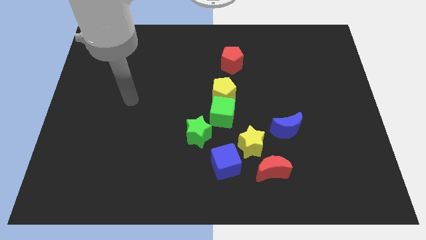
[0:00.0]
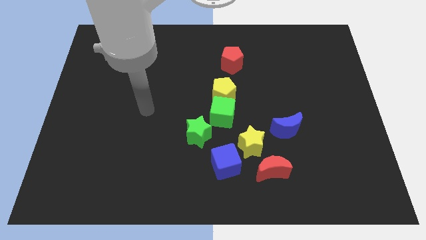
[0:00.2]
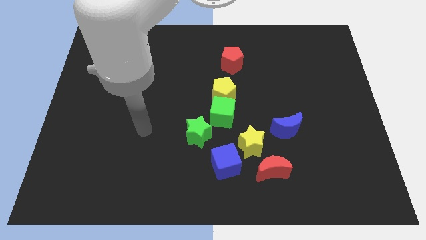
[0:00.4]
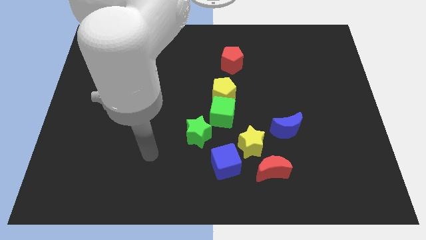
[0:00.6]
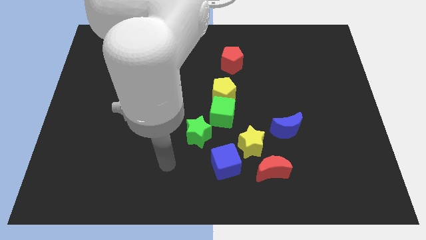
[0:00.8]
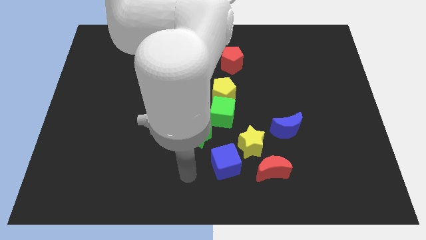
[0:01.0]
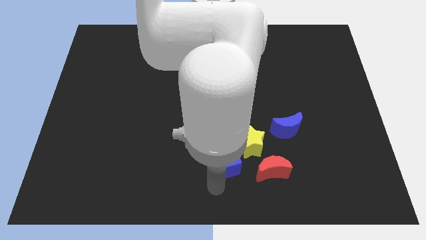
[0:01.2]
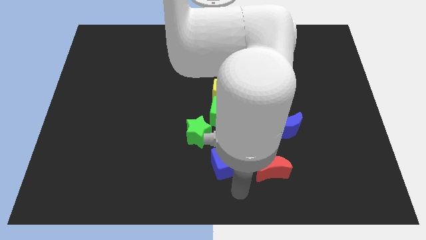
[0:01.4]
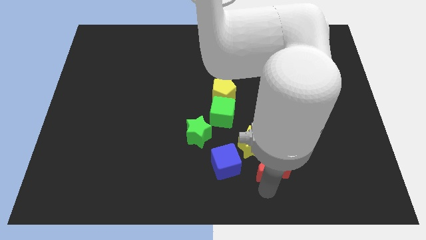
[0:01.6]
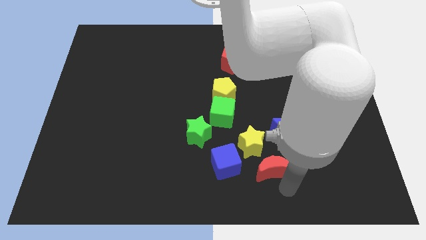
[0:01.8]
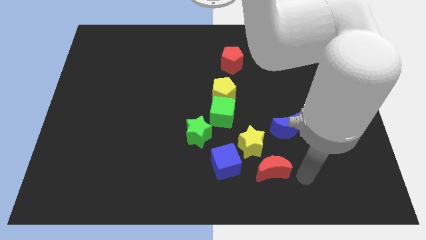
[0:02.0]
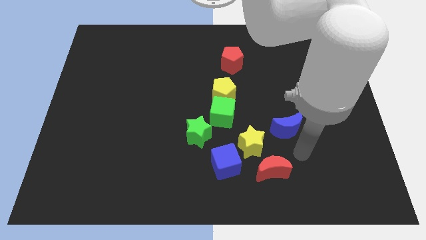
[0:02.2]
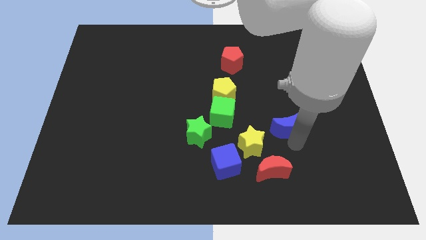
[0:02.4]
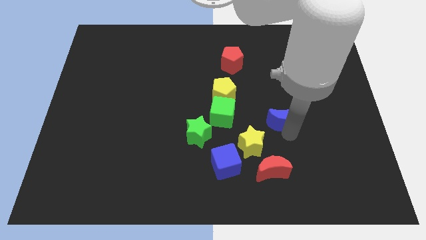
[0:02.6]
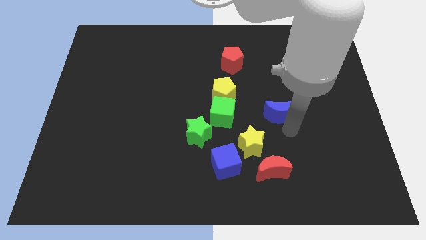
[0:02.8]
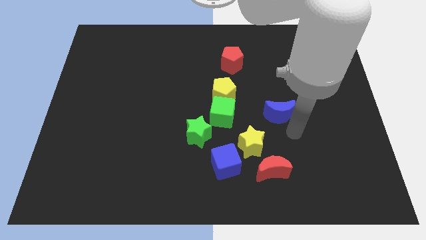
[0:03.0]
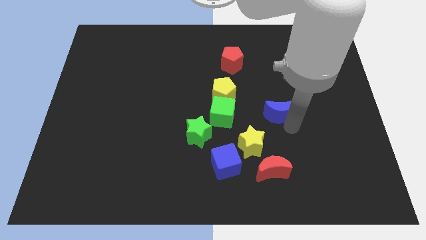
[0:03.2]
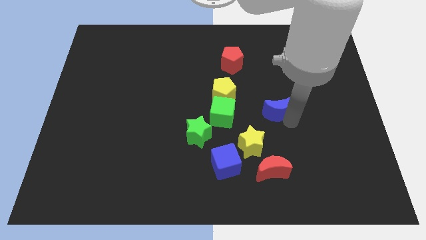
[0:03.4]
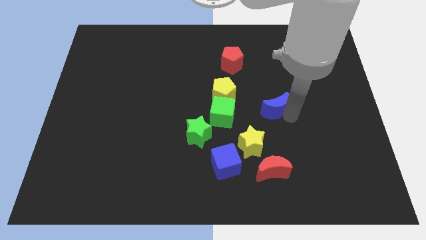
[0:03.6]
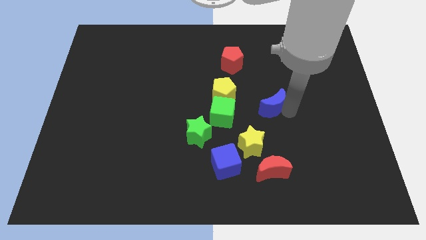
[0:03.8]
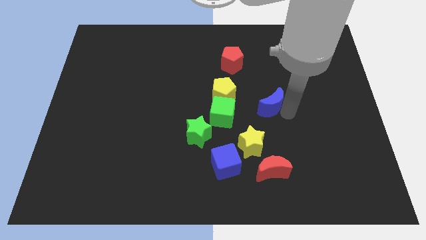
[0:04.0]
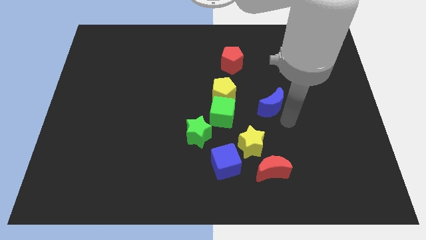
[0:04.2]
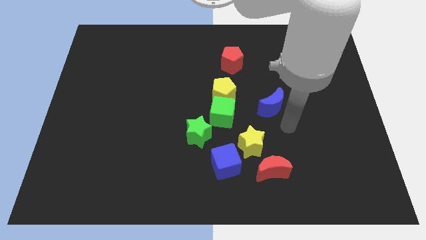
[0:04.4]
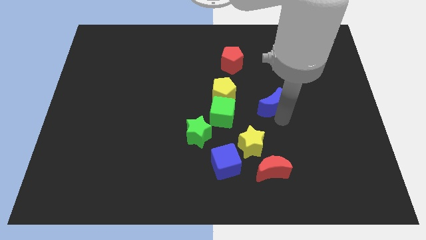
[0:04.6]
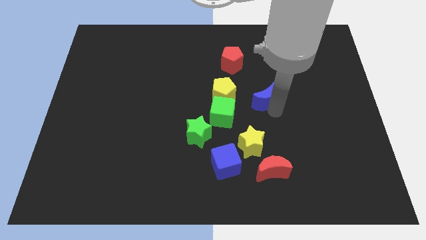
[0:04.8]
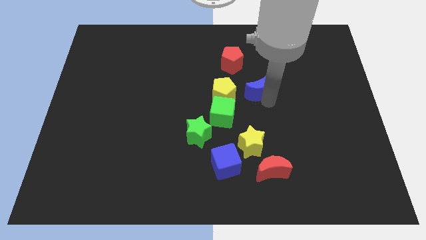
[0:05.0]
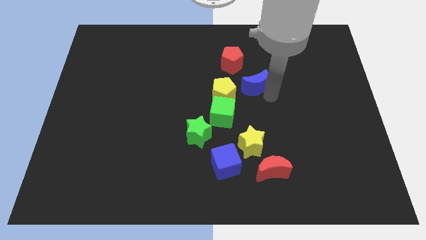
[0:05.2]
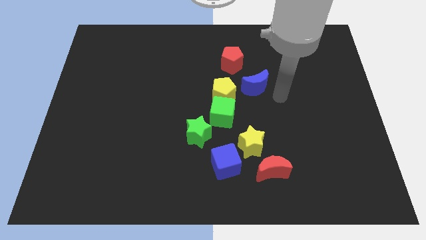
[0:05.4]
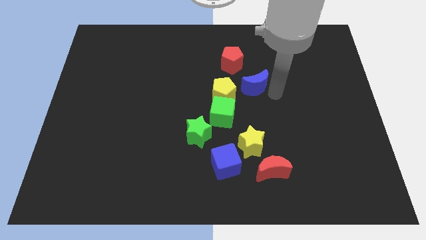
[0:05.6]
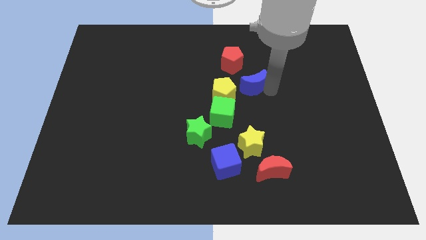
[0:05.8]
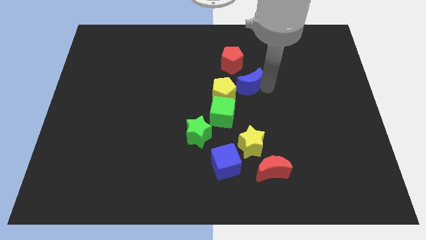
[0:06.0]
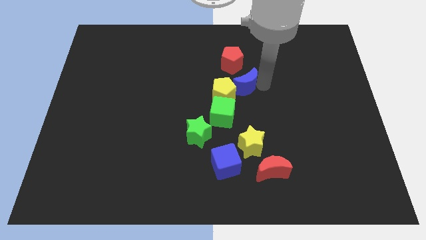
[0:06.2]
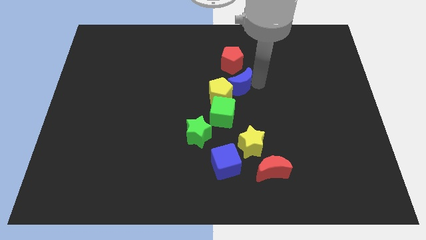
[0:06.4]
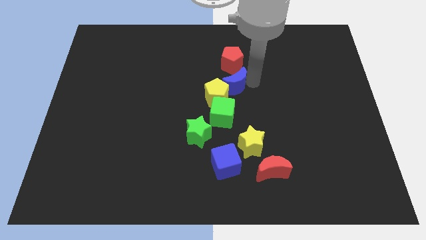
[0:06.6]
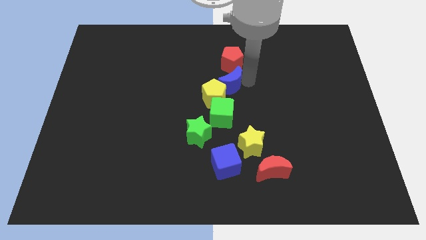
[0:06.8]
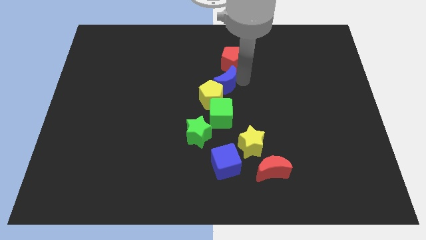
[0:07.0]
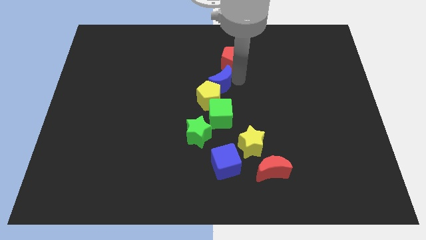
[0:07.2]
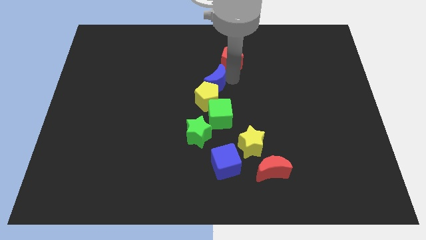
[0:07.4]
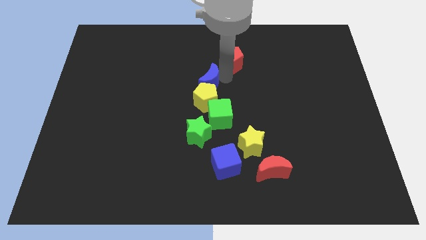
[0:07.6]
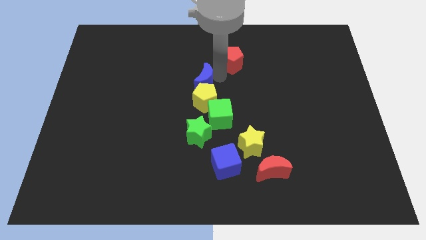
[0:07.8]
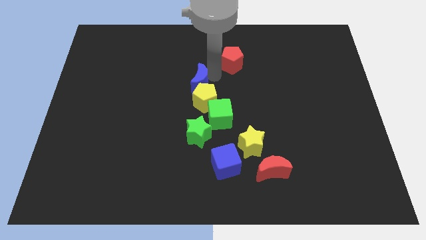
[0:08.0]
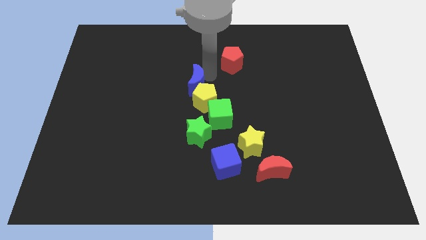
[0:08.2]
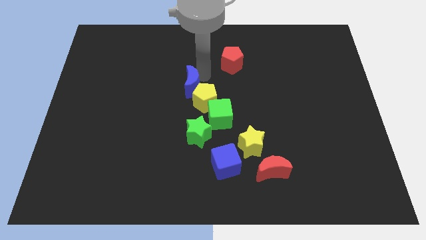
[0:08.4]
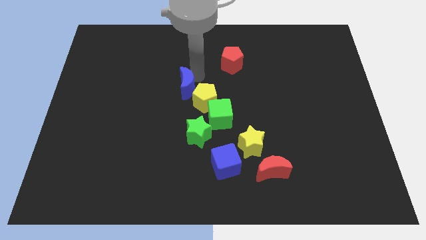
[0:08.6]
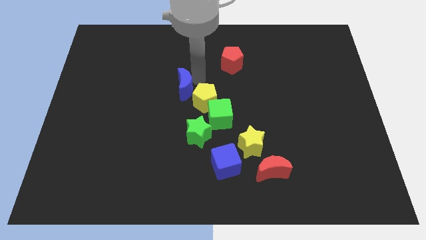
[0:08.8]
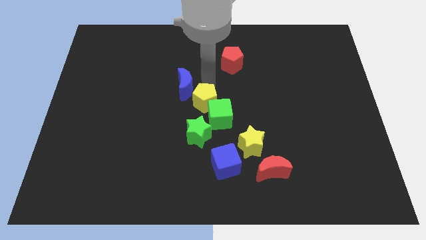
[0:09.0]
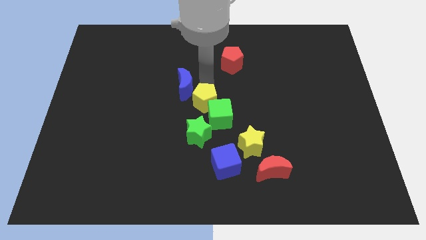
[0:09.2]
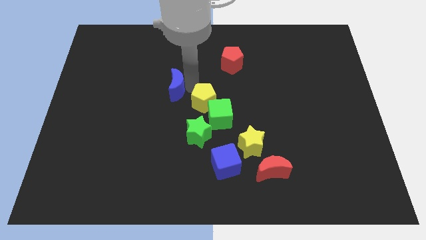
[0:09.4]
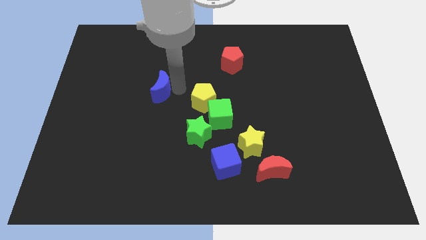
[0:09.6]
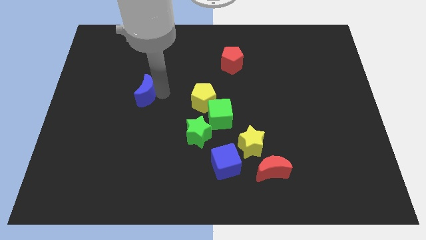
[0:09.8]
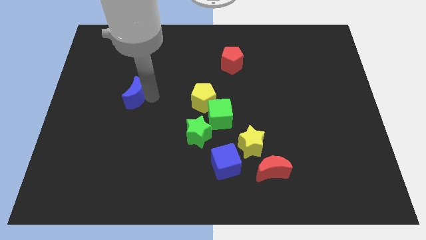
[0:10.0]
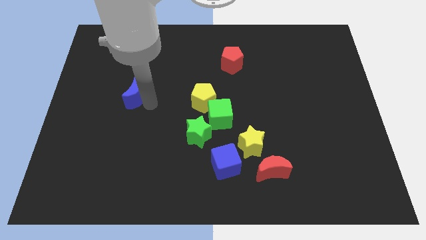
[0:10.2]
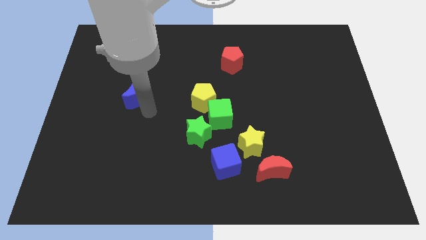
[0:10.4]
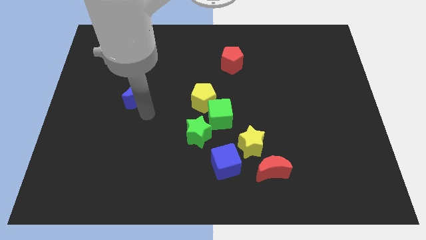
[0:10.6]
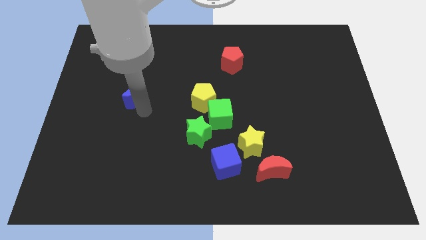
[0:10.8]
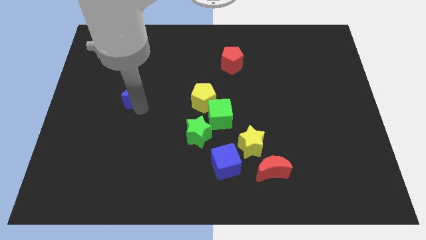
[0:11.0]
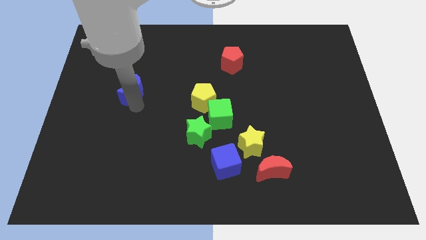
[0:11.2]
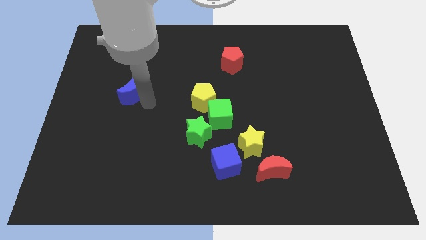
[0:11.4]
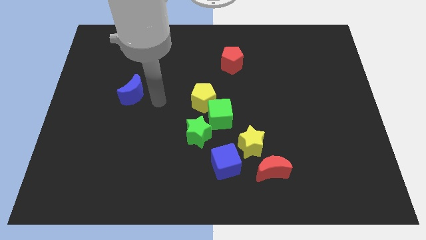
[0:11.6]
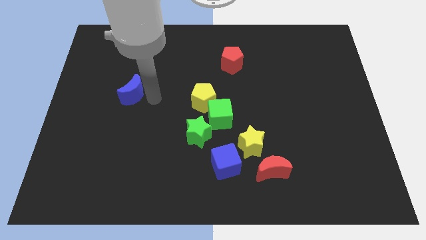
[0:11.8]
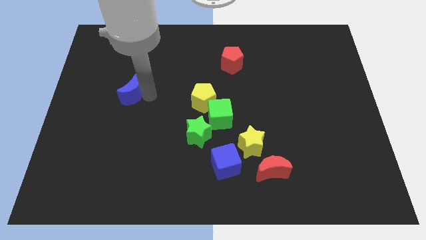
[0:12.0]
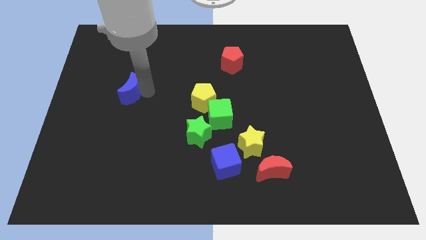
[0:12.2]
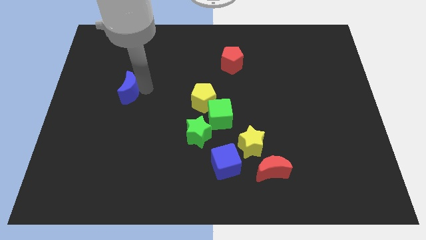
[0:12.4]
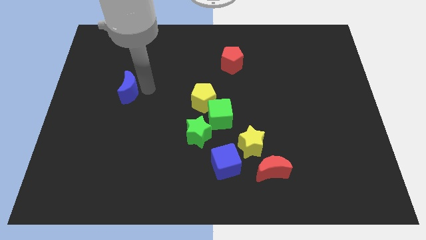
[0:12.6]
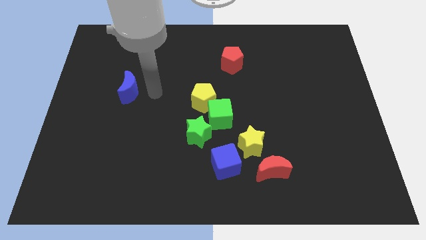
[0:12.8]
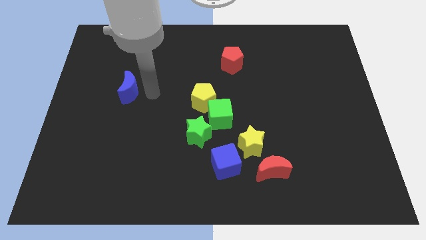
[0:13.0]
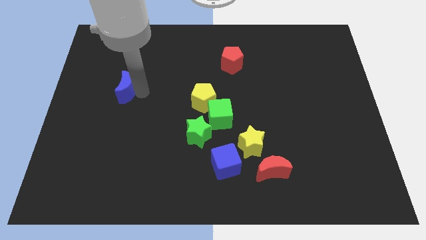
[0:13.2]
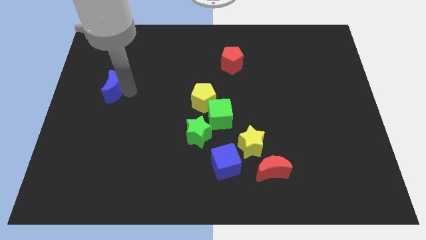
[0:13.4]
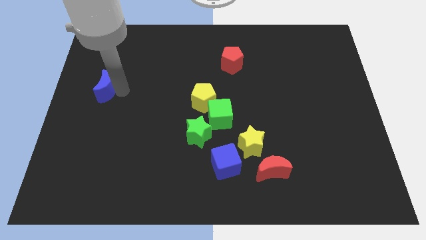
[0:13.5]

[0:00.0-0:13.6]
push the blue moon to the left side
